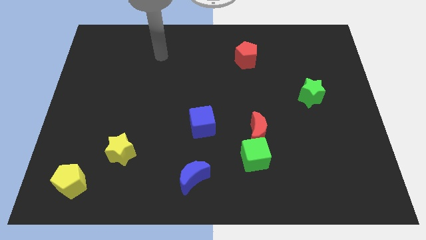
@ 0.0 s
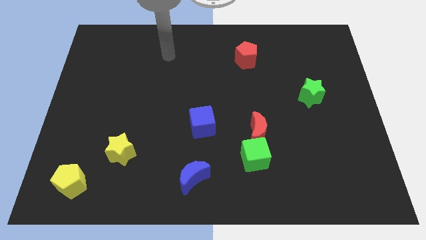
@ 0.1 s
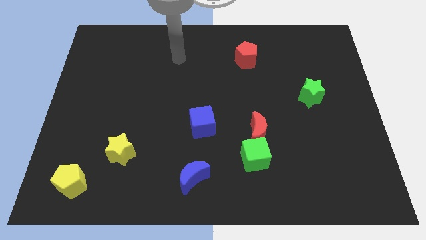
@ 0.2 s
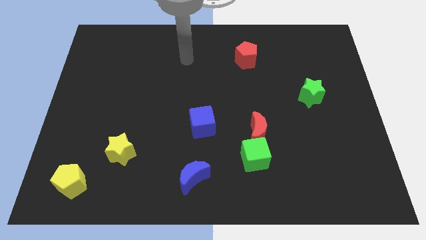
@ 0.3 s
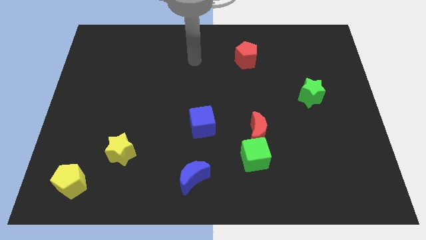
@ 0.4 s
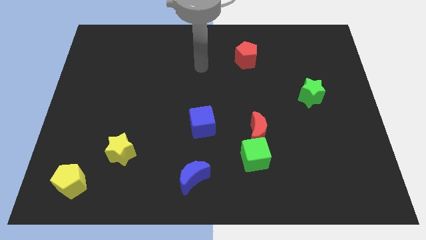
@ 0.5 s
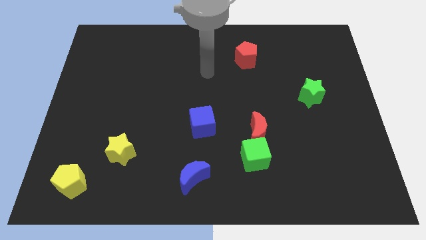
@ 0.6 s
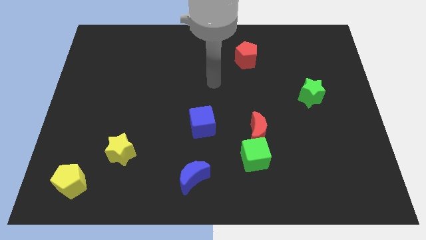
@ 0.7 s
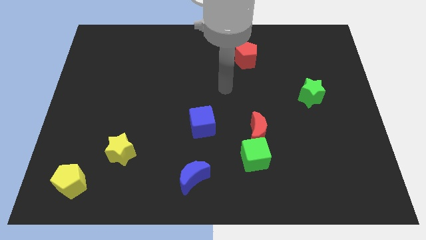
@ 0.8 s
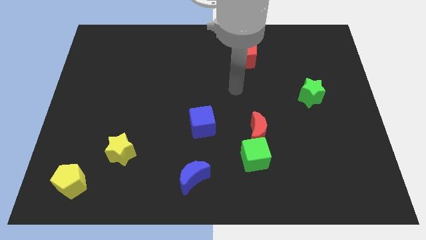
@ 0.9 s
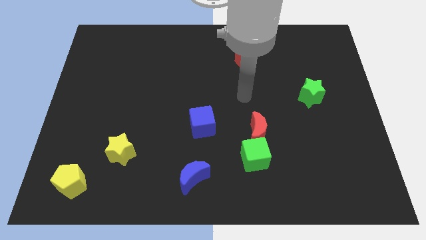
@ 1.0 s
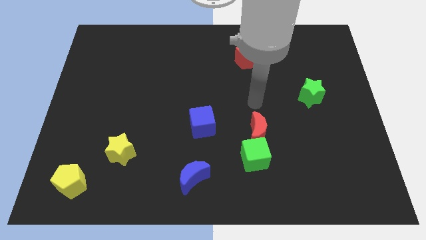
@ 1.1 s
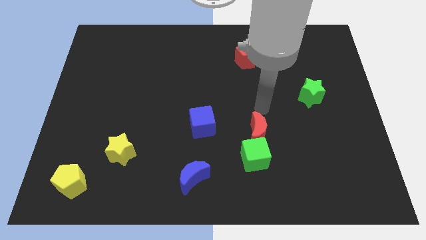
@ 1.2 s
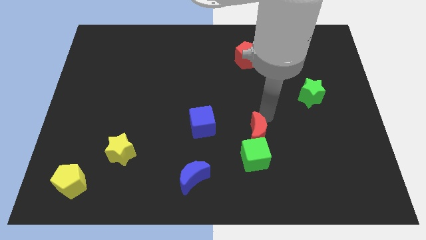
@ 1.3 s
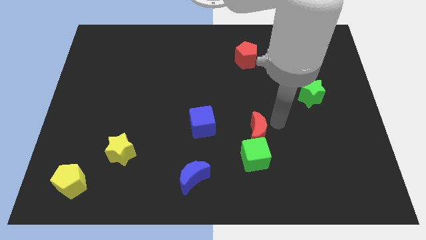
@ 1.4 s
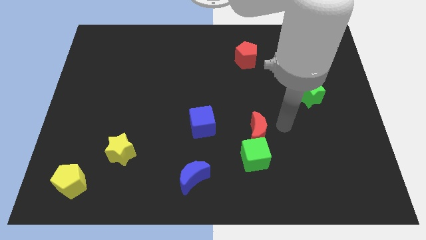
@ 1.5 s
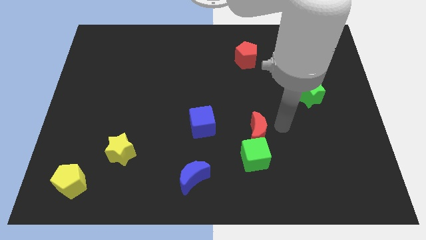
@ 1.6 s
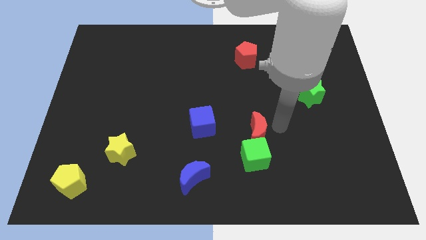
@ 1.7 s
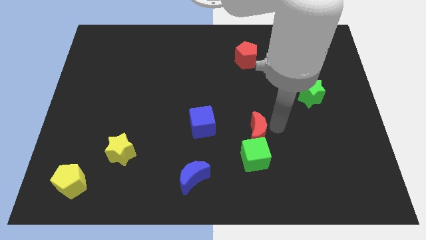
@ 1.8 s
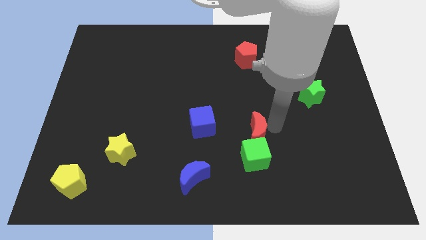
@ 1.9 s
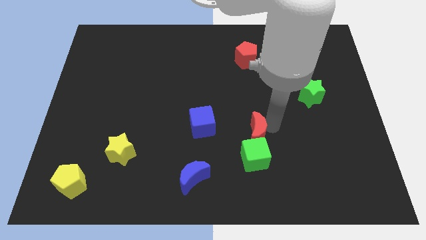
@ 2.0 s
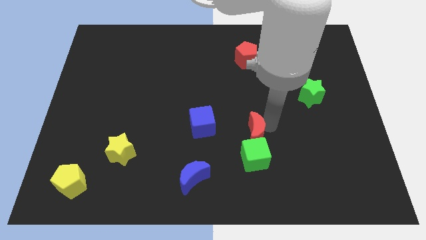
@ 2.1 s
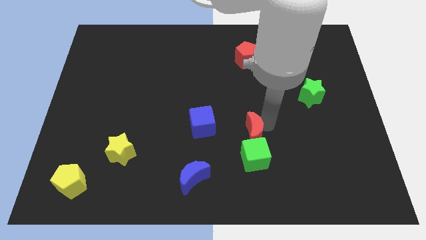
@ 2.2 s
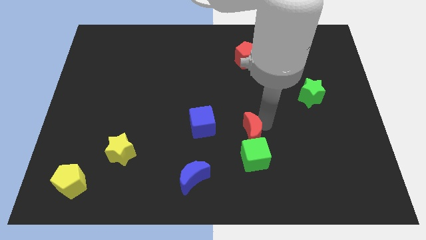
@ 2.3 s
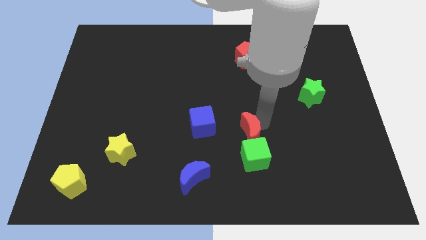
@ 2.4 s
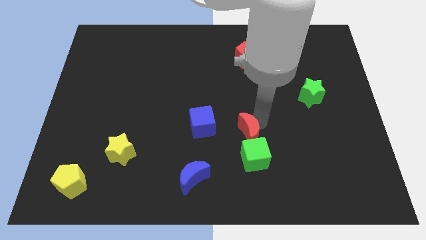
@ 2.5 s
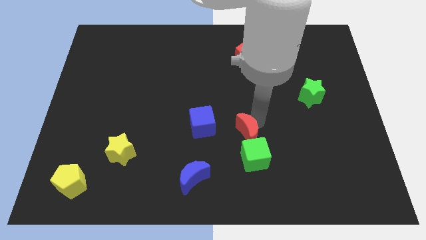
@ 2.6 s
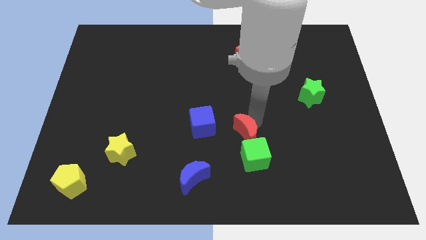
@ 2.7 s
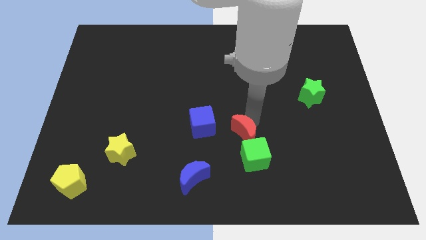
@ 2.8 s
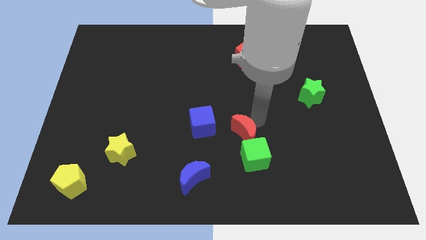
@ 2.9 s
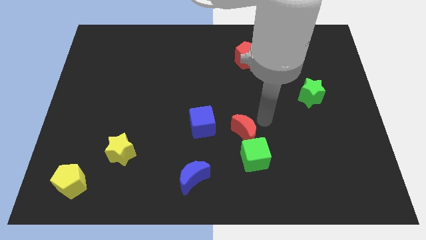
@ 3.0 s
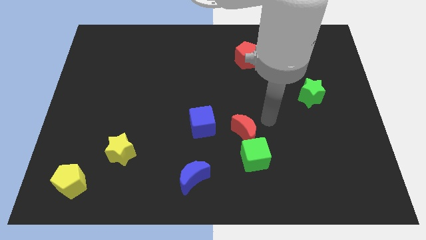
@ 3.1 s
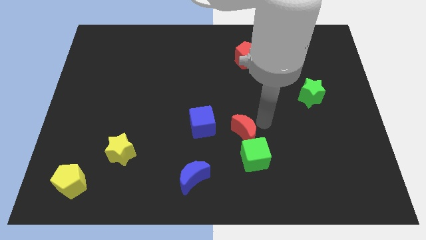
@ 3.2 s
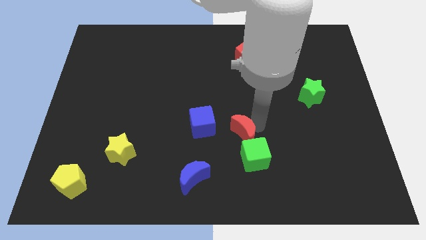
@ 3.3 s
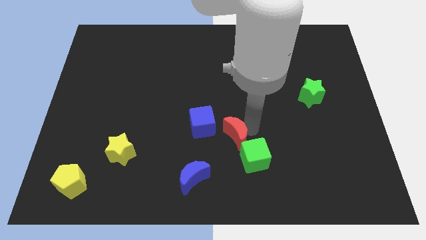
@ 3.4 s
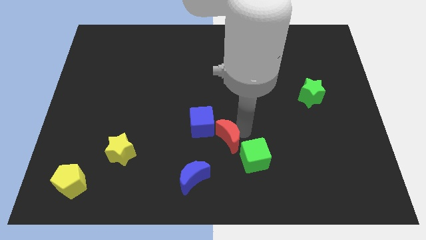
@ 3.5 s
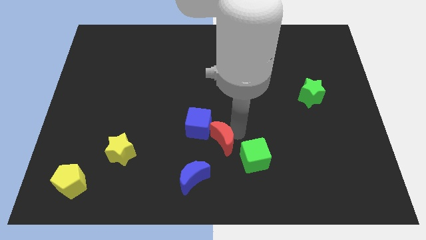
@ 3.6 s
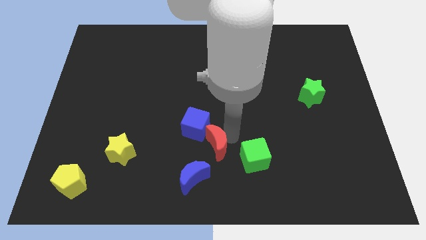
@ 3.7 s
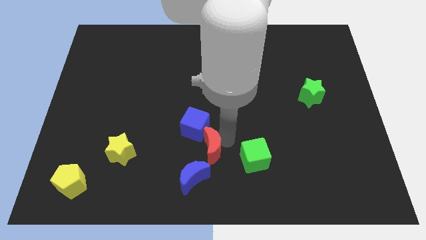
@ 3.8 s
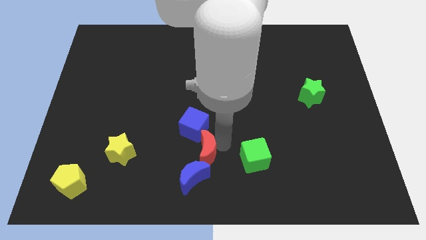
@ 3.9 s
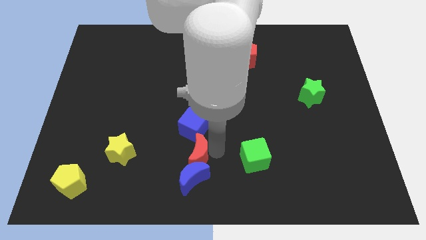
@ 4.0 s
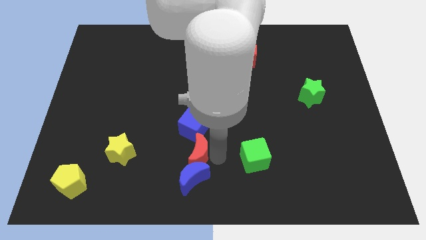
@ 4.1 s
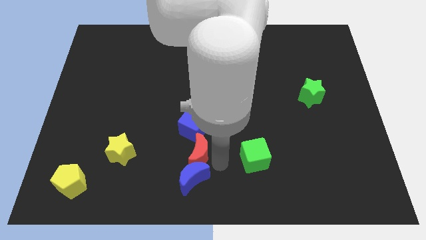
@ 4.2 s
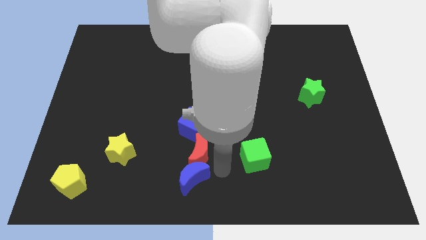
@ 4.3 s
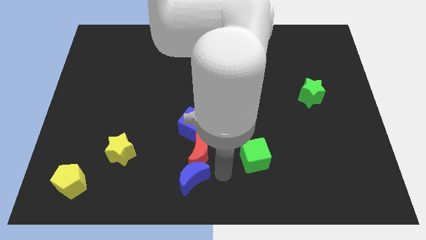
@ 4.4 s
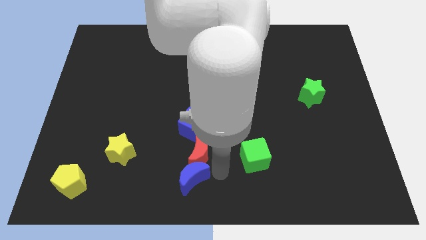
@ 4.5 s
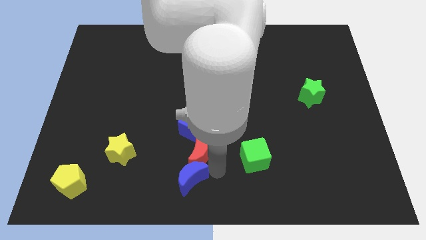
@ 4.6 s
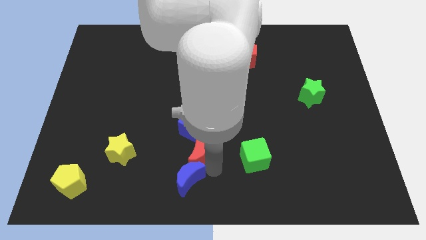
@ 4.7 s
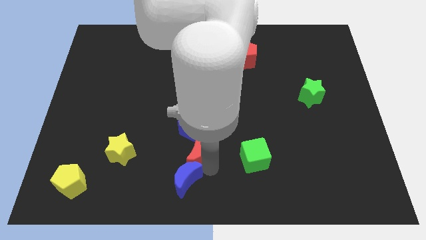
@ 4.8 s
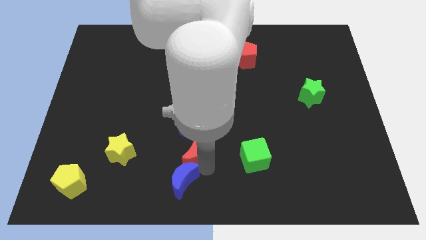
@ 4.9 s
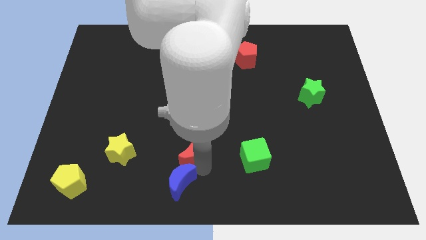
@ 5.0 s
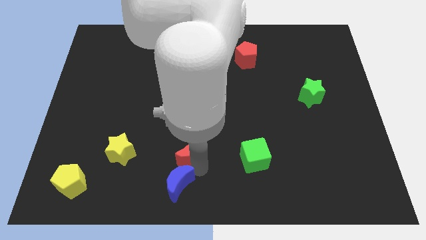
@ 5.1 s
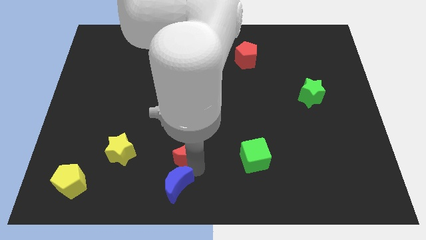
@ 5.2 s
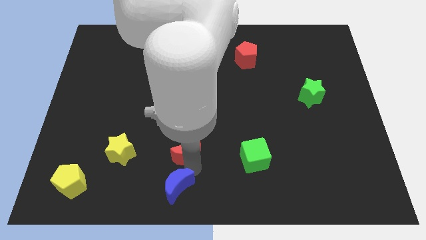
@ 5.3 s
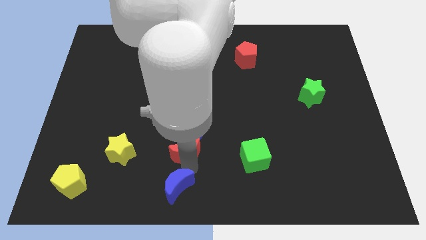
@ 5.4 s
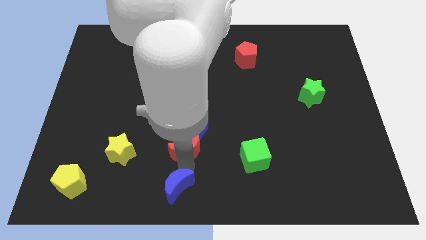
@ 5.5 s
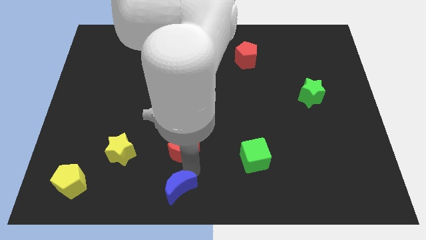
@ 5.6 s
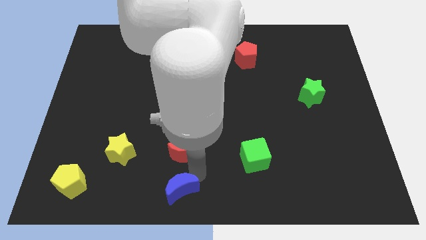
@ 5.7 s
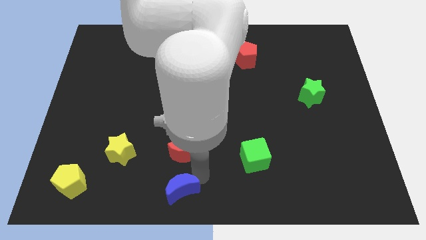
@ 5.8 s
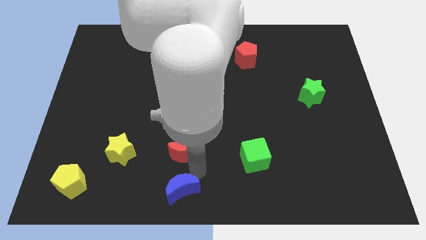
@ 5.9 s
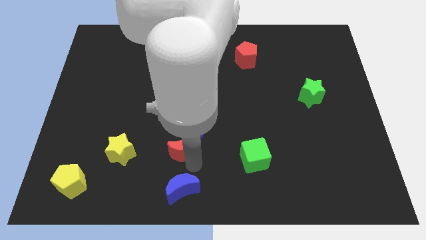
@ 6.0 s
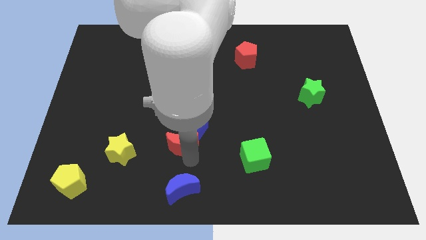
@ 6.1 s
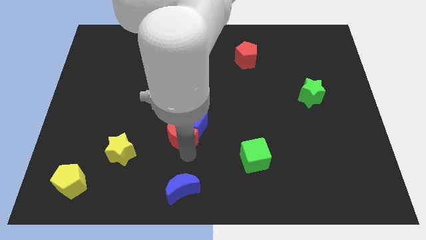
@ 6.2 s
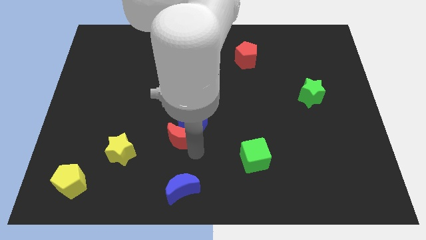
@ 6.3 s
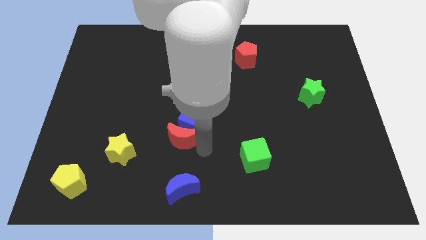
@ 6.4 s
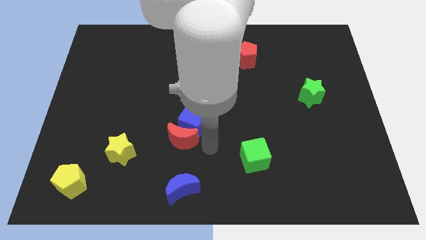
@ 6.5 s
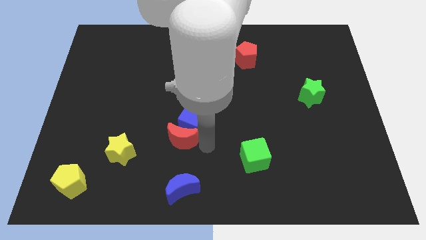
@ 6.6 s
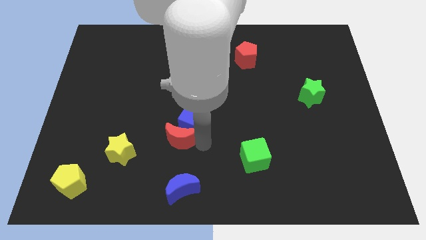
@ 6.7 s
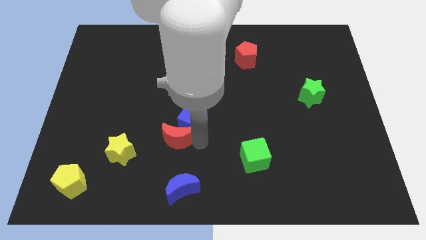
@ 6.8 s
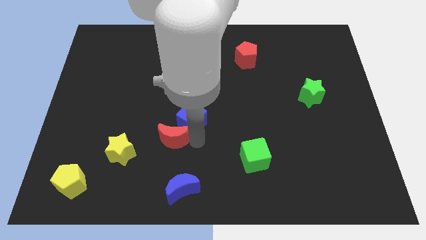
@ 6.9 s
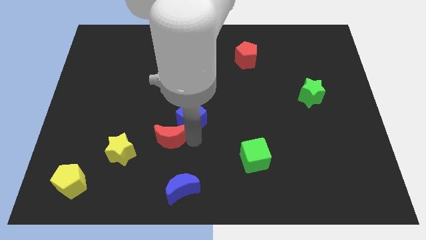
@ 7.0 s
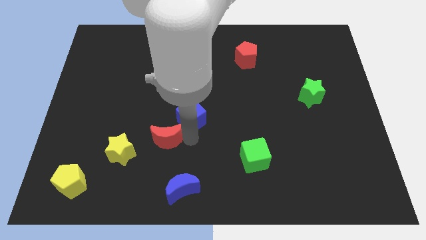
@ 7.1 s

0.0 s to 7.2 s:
move the red moon left

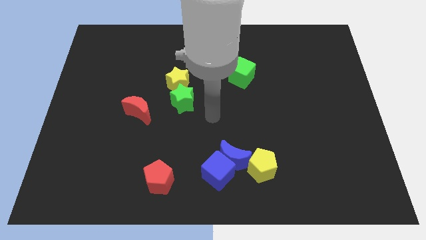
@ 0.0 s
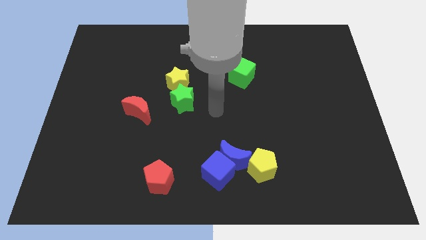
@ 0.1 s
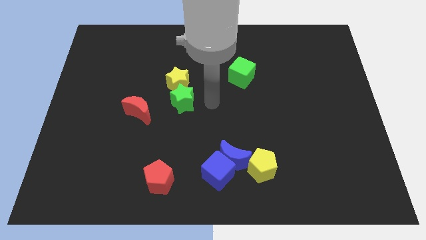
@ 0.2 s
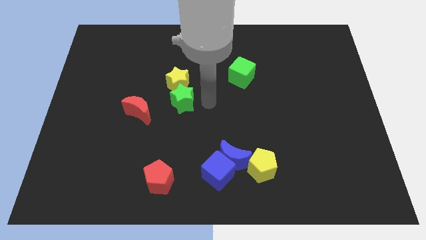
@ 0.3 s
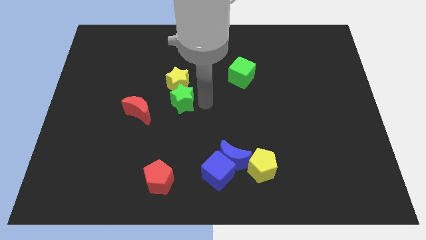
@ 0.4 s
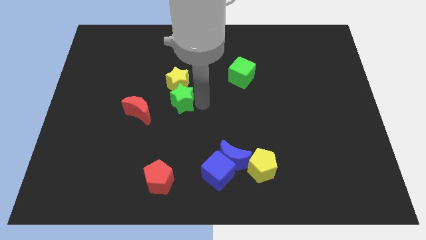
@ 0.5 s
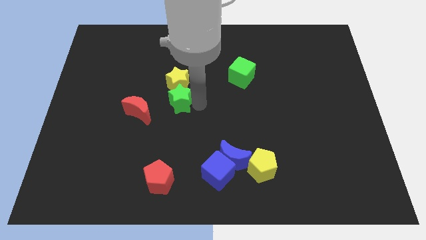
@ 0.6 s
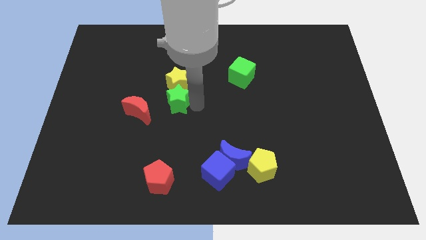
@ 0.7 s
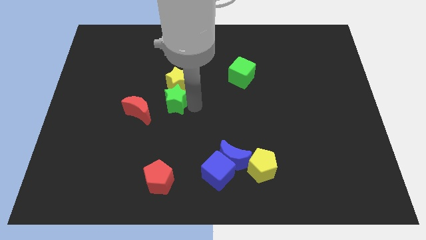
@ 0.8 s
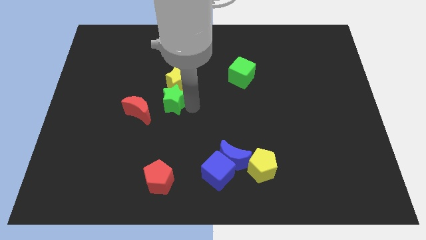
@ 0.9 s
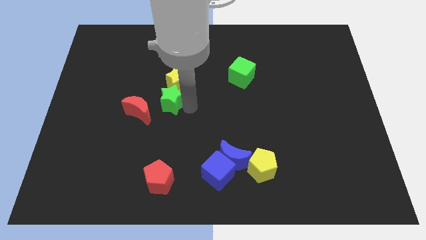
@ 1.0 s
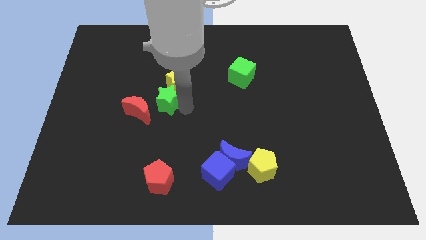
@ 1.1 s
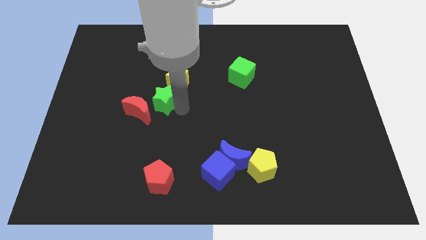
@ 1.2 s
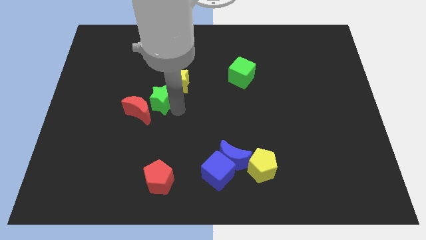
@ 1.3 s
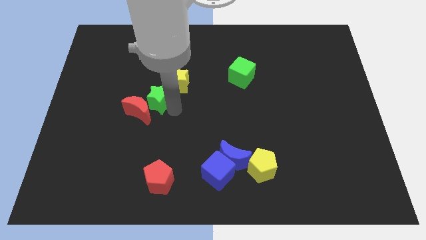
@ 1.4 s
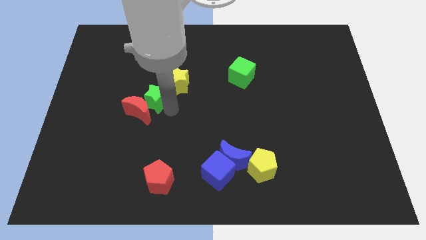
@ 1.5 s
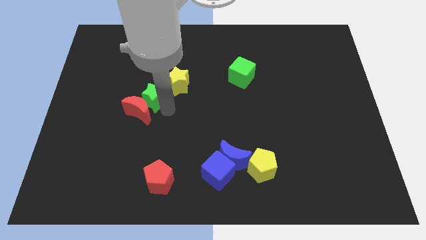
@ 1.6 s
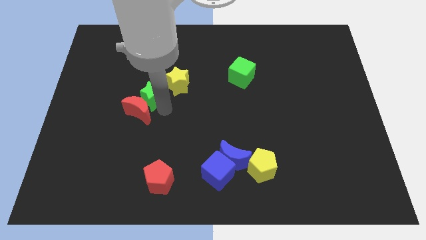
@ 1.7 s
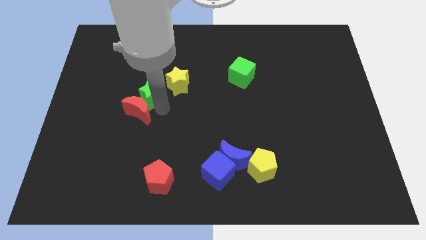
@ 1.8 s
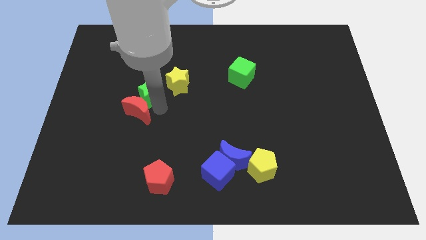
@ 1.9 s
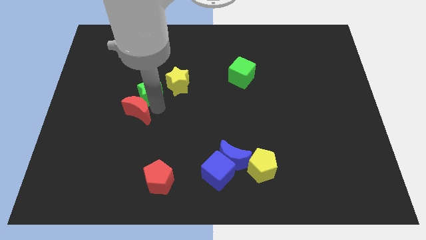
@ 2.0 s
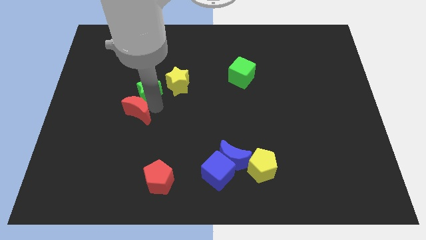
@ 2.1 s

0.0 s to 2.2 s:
move the green star a little bit upwards and then to the left
